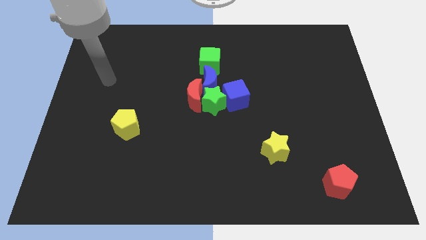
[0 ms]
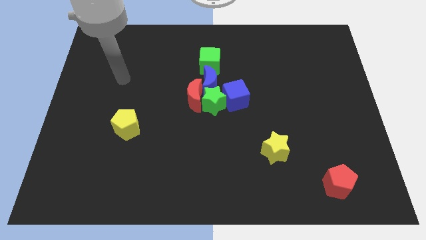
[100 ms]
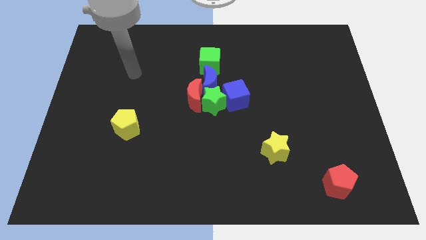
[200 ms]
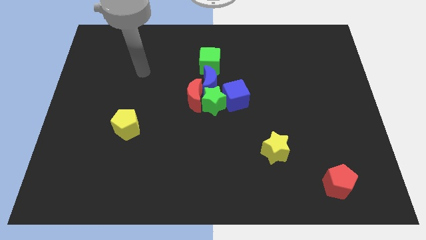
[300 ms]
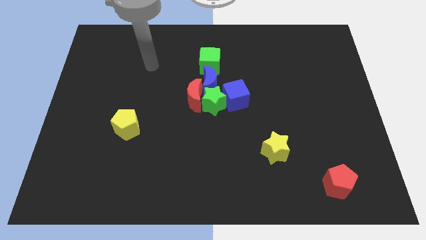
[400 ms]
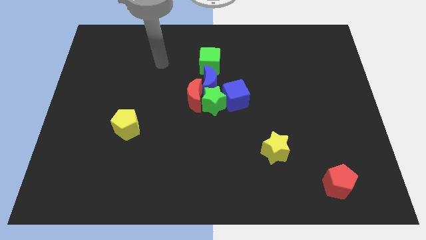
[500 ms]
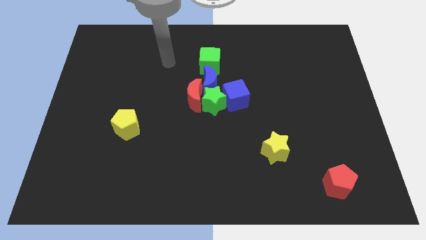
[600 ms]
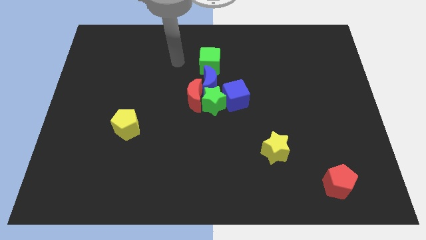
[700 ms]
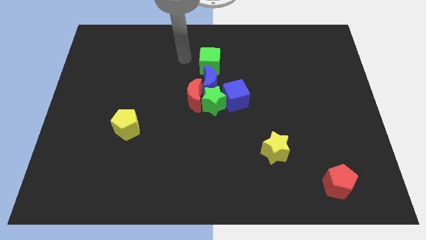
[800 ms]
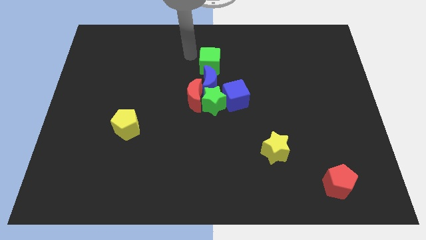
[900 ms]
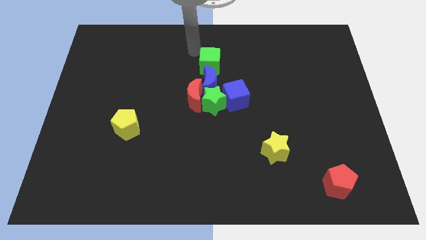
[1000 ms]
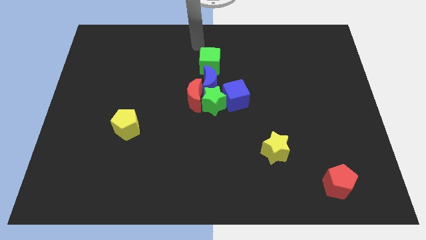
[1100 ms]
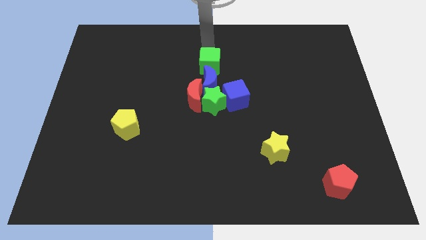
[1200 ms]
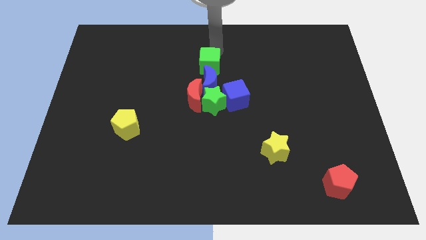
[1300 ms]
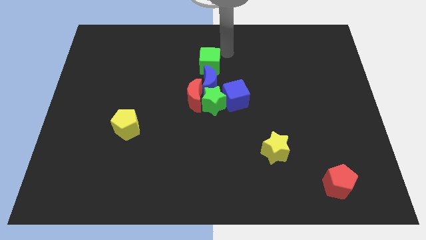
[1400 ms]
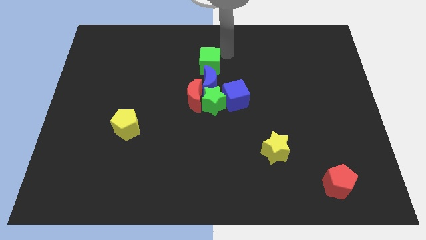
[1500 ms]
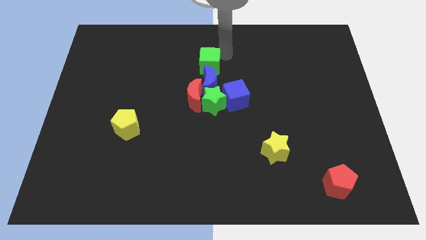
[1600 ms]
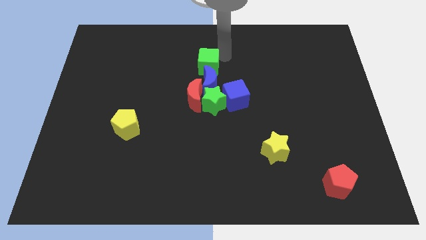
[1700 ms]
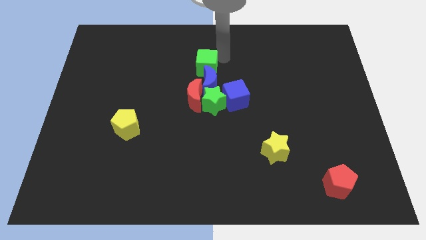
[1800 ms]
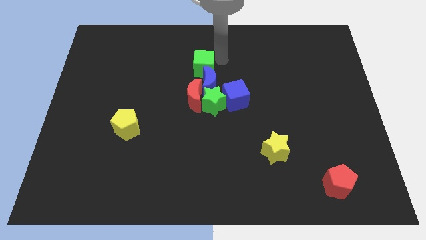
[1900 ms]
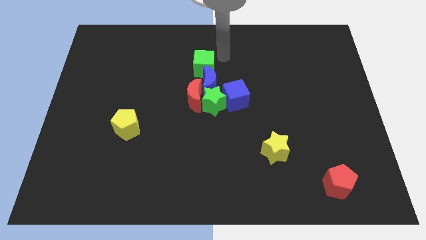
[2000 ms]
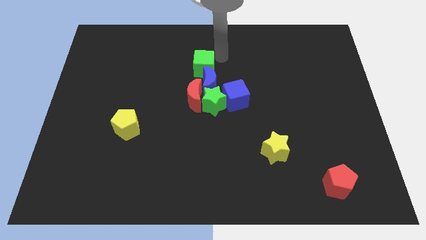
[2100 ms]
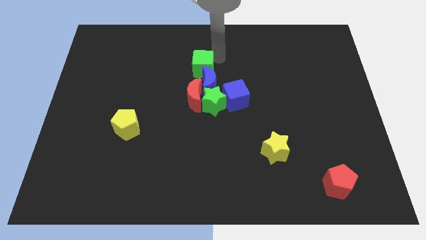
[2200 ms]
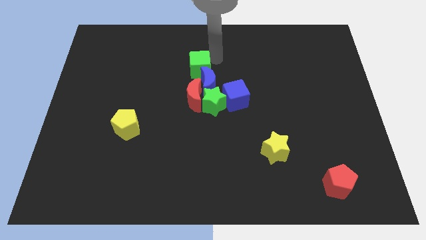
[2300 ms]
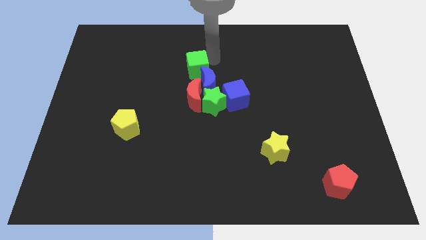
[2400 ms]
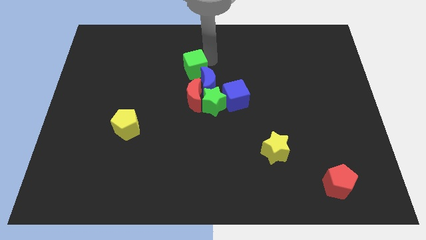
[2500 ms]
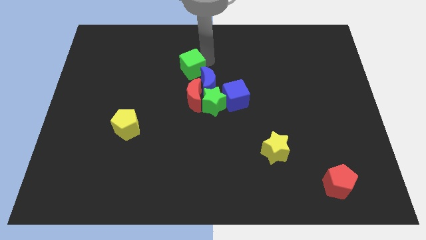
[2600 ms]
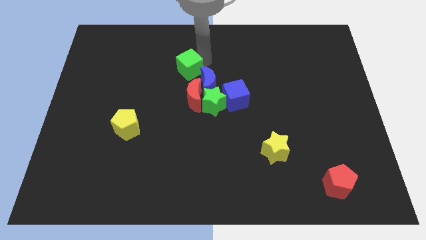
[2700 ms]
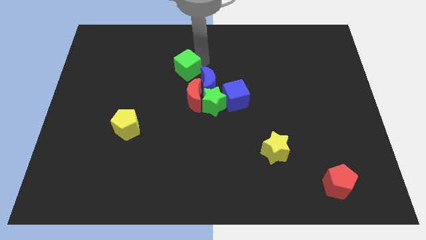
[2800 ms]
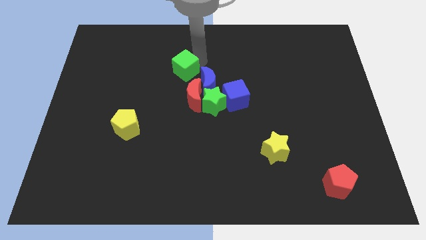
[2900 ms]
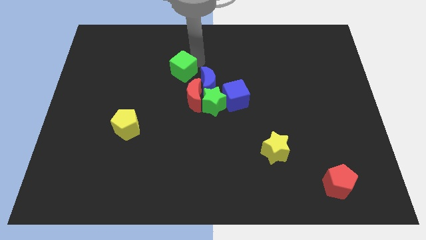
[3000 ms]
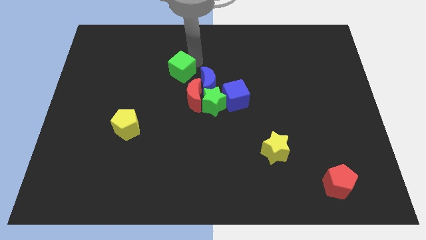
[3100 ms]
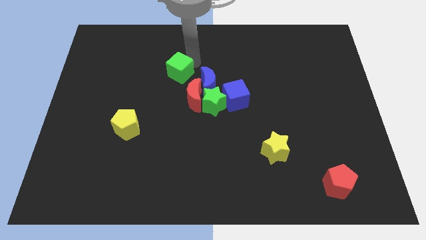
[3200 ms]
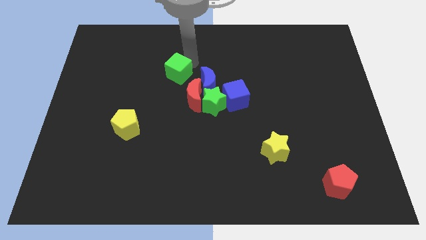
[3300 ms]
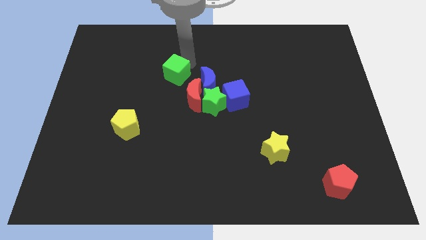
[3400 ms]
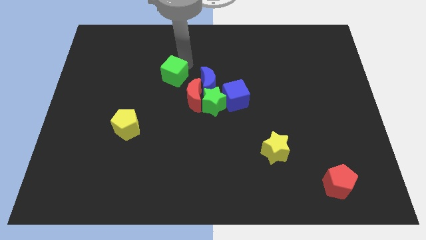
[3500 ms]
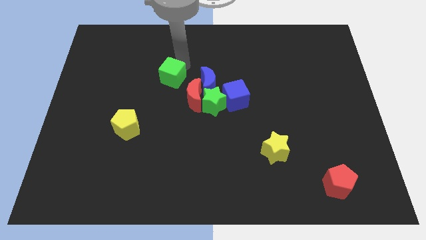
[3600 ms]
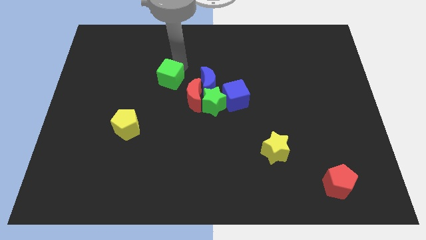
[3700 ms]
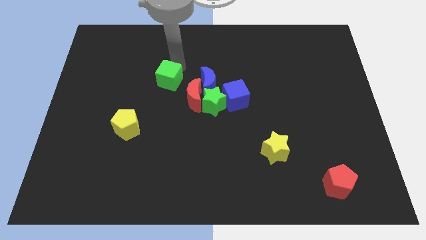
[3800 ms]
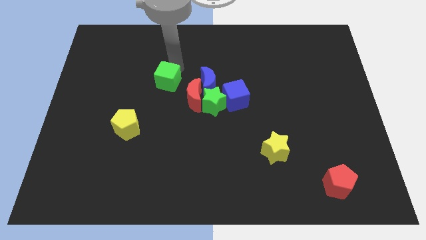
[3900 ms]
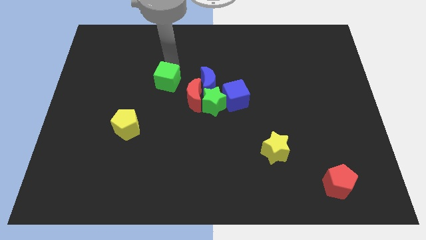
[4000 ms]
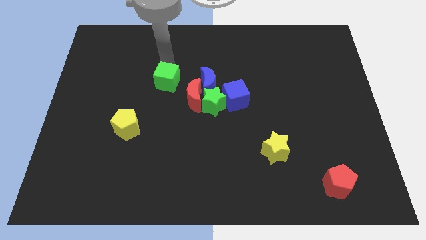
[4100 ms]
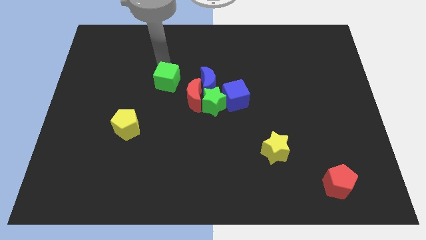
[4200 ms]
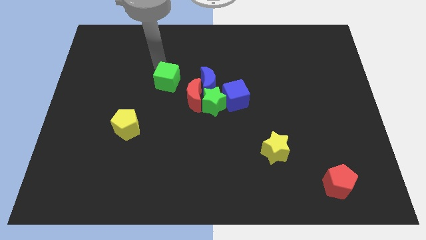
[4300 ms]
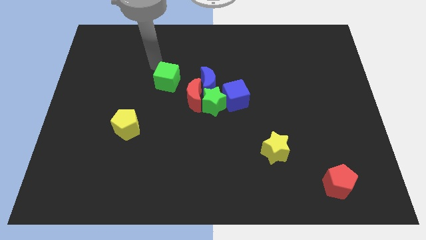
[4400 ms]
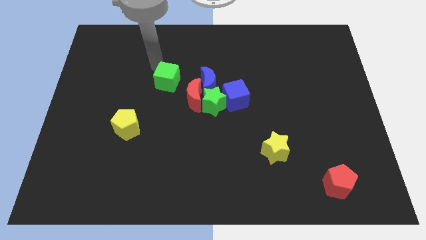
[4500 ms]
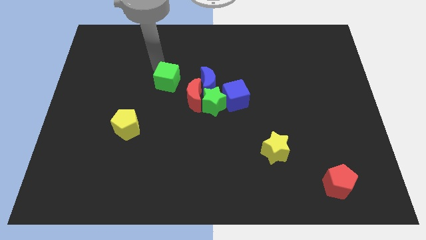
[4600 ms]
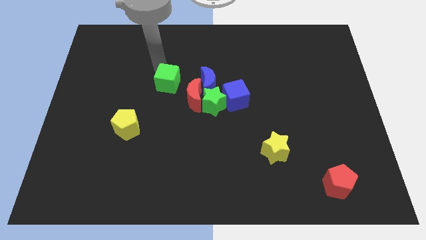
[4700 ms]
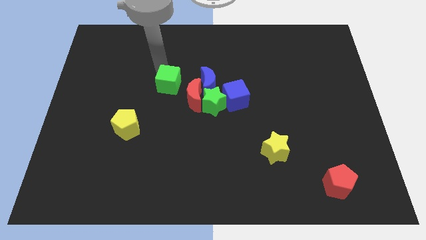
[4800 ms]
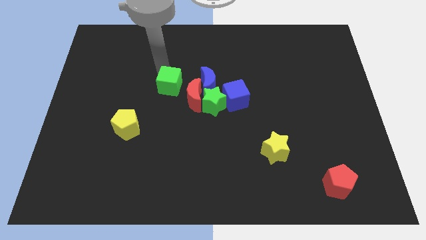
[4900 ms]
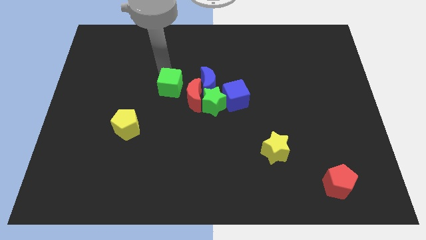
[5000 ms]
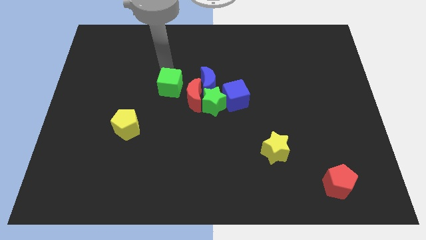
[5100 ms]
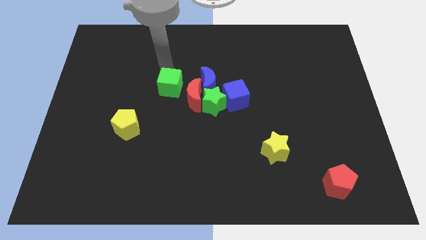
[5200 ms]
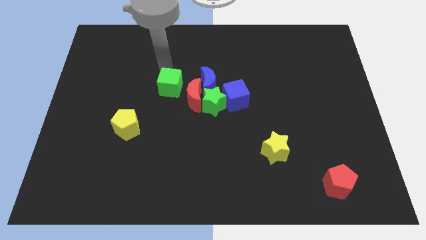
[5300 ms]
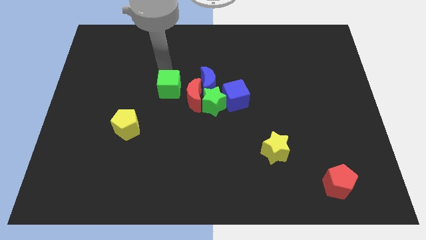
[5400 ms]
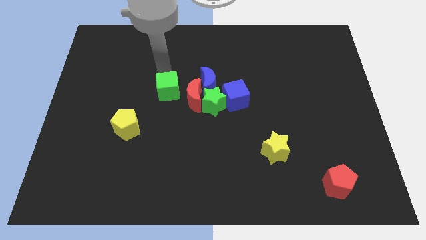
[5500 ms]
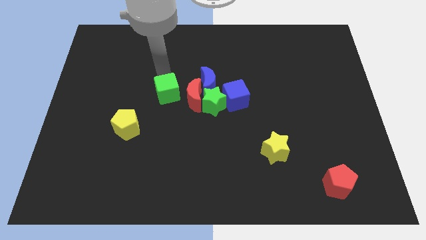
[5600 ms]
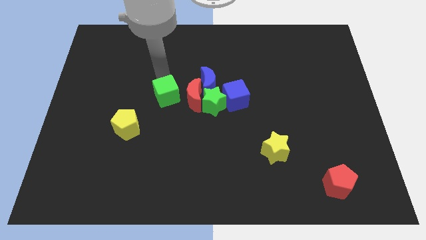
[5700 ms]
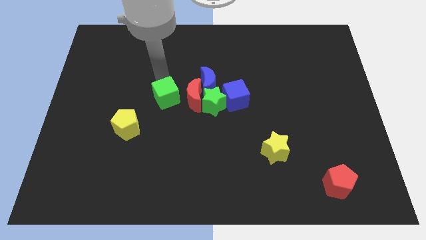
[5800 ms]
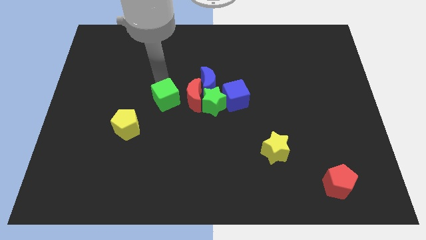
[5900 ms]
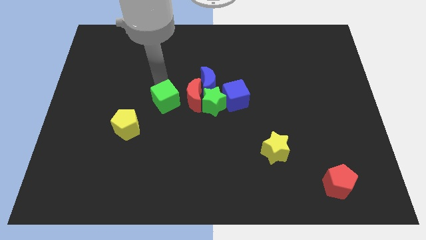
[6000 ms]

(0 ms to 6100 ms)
push the green cube a bit down

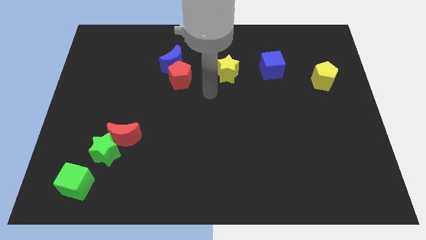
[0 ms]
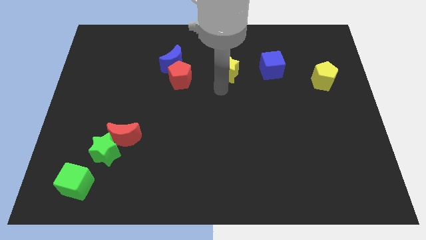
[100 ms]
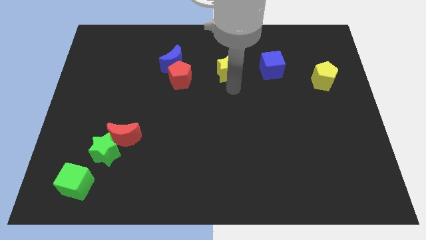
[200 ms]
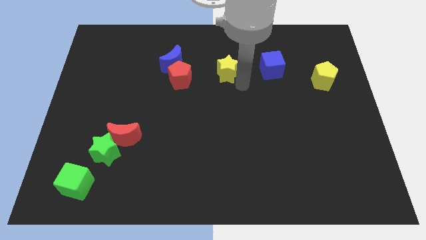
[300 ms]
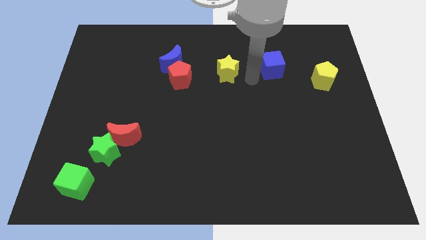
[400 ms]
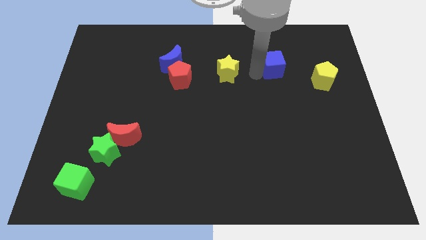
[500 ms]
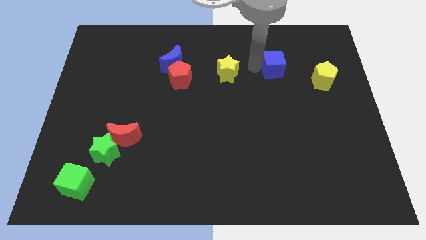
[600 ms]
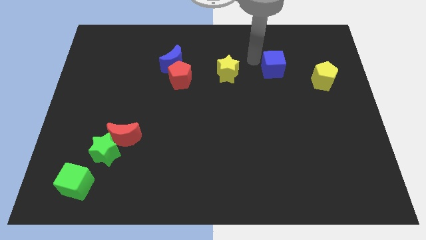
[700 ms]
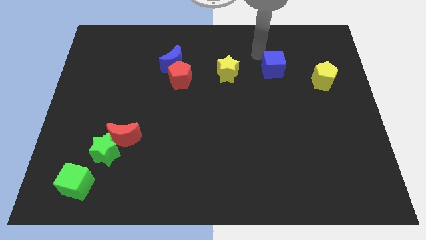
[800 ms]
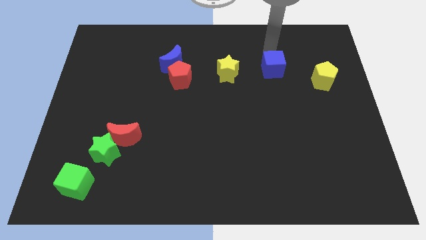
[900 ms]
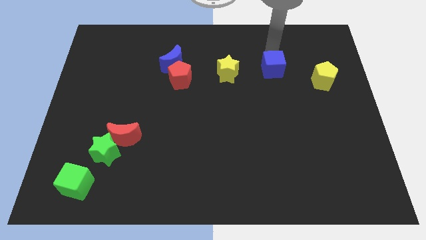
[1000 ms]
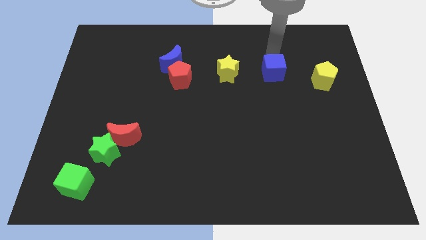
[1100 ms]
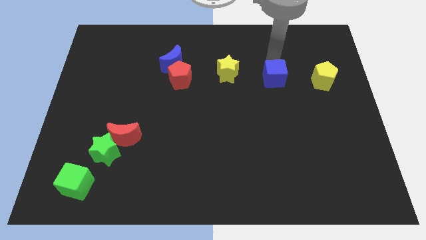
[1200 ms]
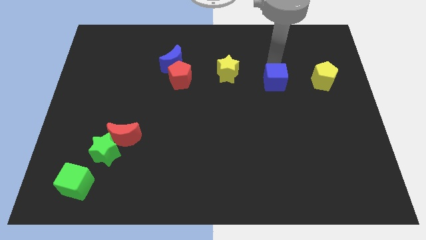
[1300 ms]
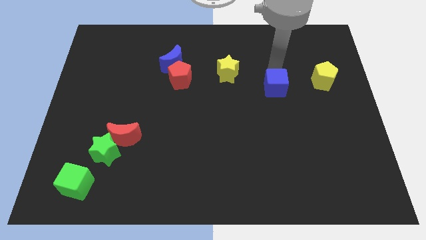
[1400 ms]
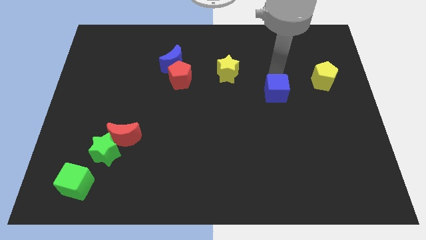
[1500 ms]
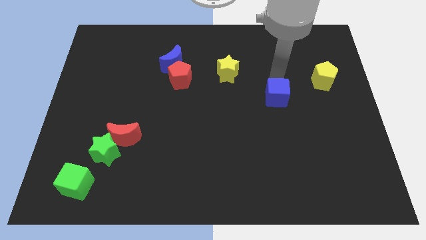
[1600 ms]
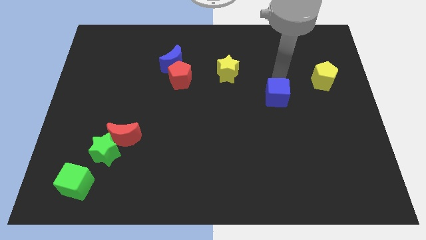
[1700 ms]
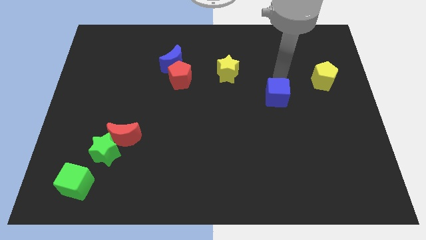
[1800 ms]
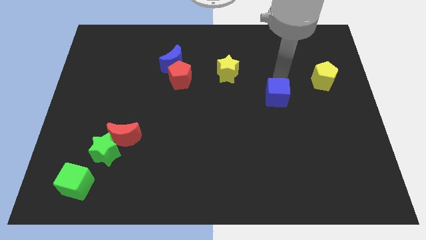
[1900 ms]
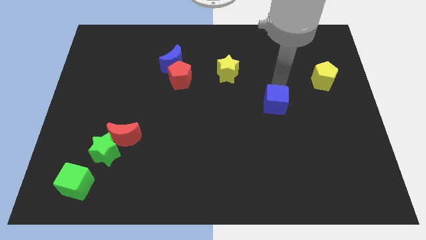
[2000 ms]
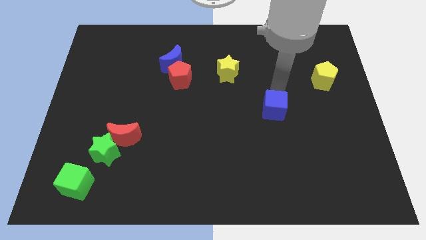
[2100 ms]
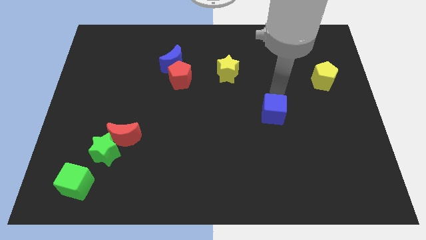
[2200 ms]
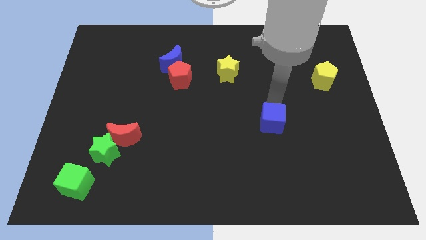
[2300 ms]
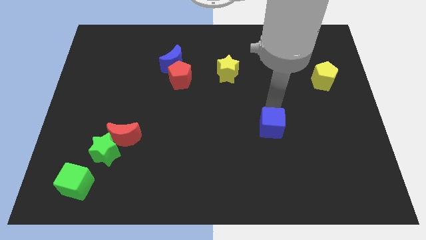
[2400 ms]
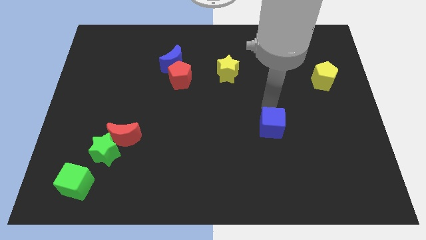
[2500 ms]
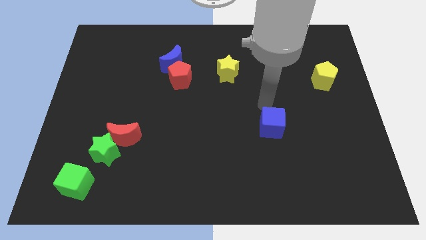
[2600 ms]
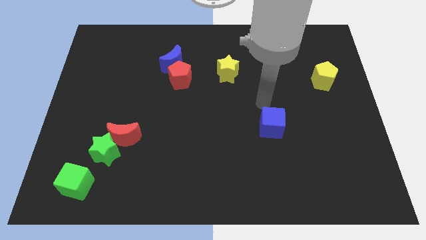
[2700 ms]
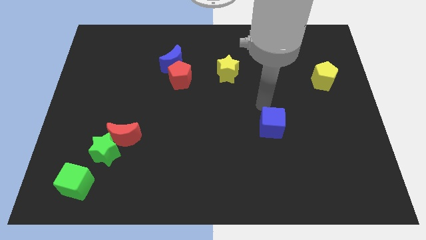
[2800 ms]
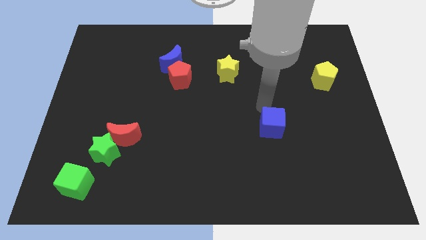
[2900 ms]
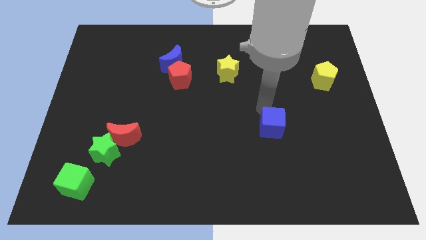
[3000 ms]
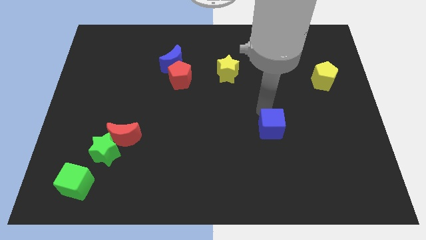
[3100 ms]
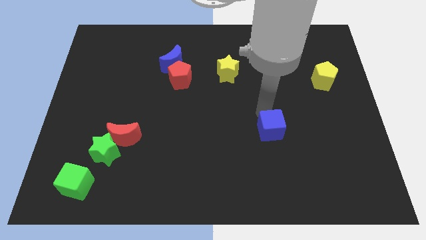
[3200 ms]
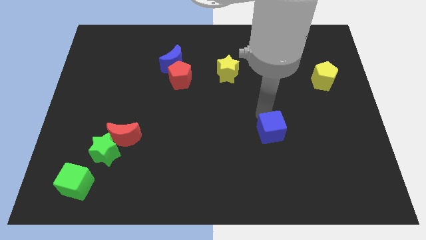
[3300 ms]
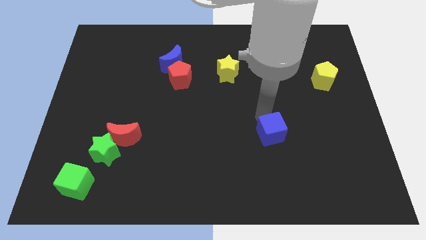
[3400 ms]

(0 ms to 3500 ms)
push the blue cube down
